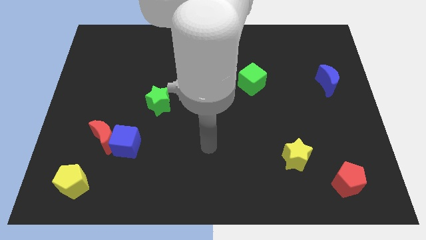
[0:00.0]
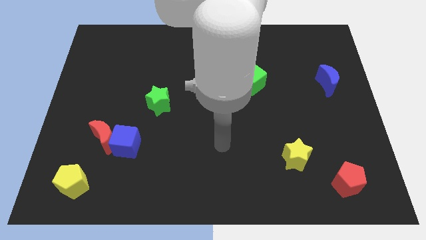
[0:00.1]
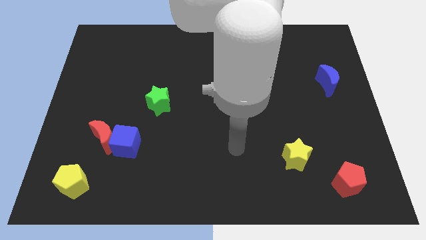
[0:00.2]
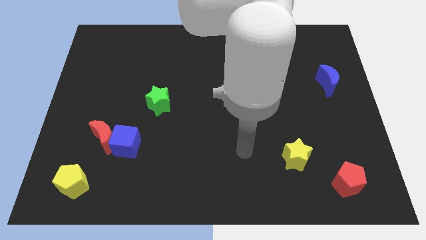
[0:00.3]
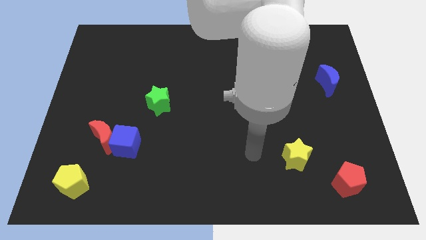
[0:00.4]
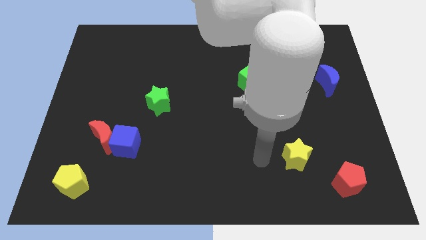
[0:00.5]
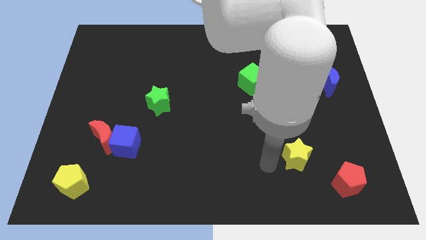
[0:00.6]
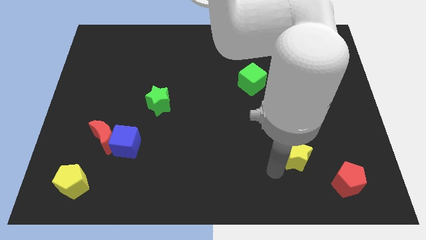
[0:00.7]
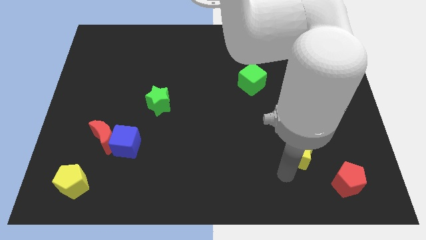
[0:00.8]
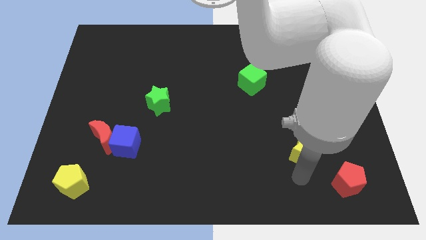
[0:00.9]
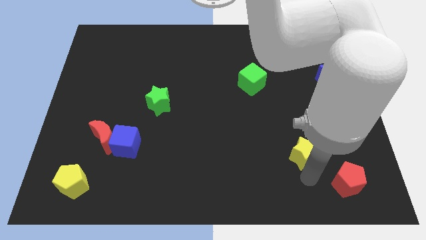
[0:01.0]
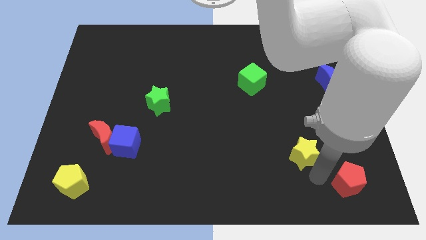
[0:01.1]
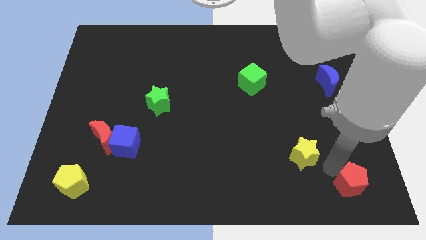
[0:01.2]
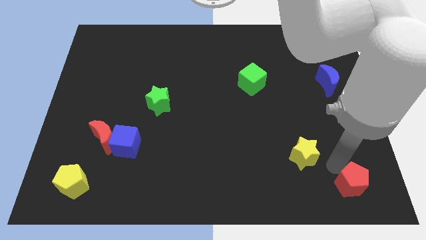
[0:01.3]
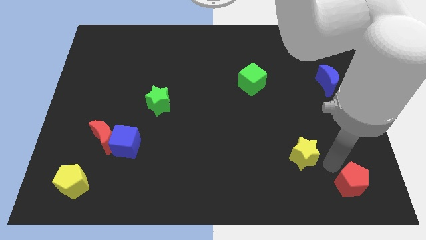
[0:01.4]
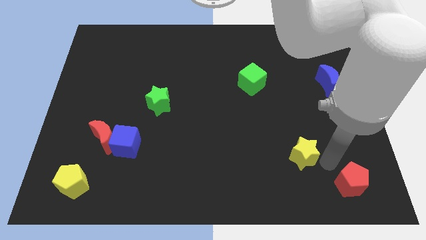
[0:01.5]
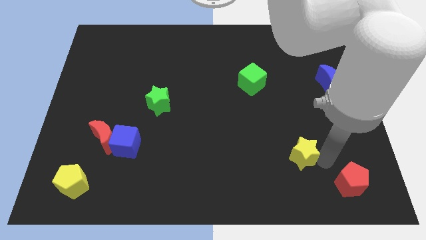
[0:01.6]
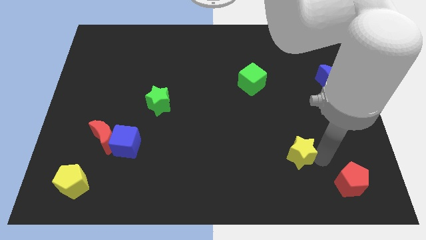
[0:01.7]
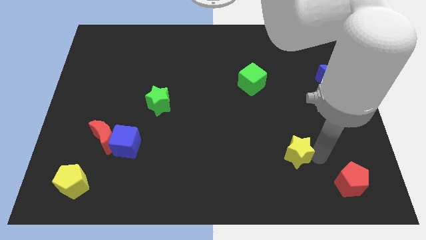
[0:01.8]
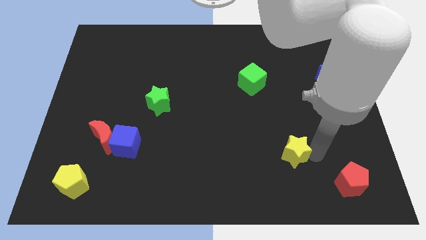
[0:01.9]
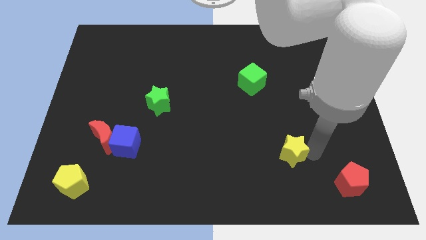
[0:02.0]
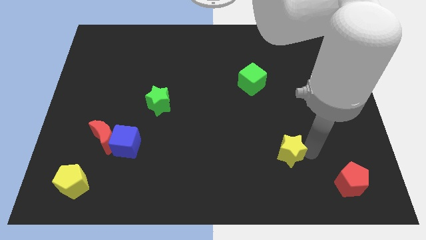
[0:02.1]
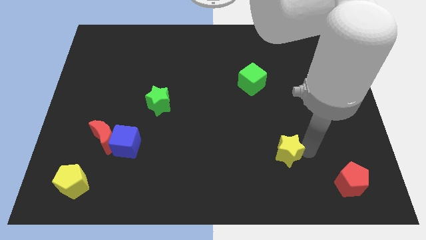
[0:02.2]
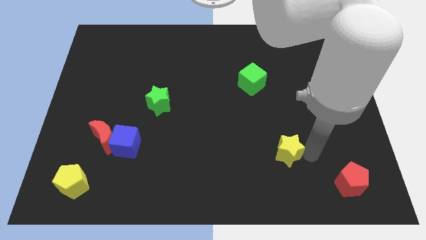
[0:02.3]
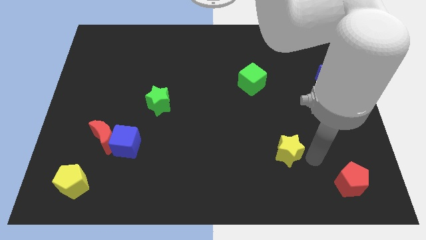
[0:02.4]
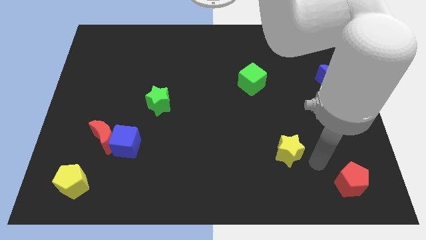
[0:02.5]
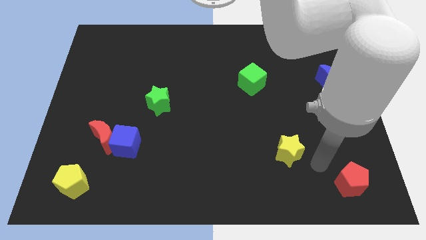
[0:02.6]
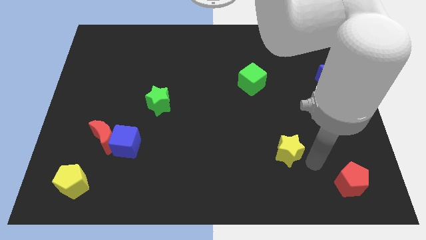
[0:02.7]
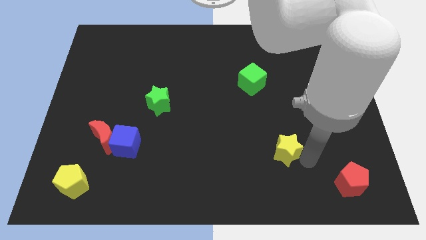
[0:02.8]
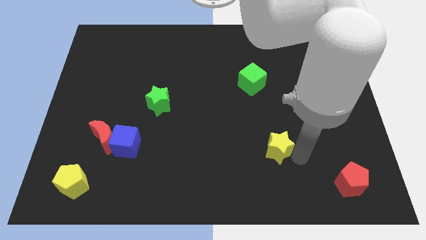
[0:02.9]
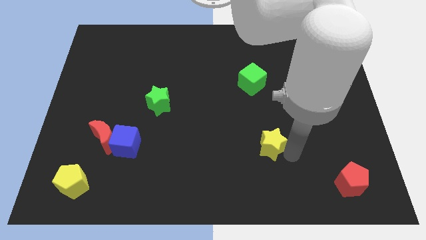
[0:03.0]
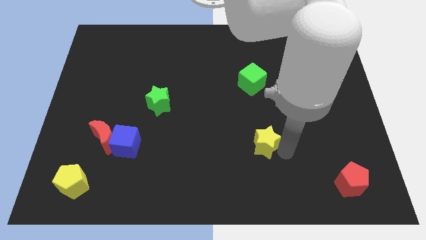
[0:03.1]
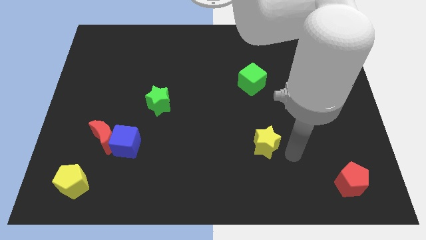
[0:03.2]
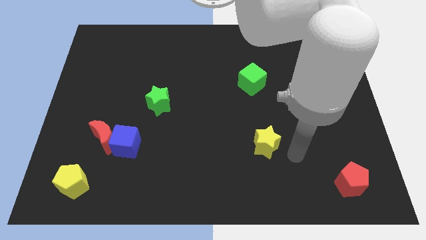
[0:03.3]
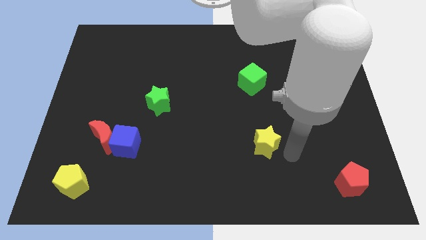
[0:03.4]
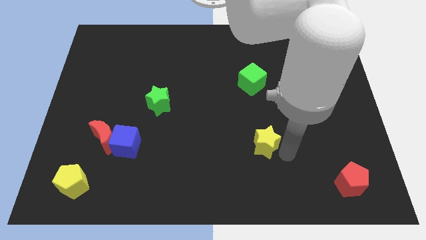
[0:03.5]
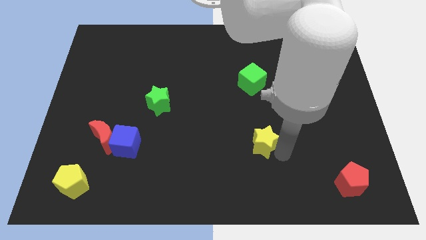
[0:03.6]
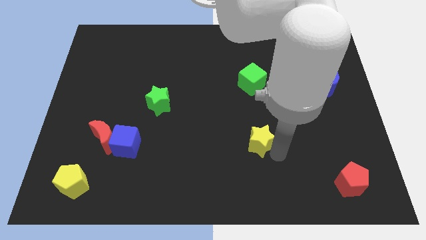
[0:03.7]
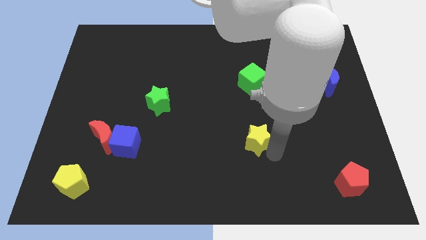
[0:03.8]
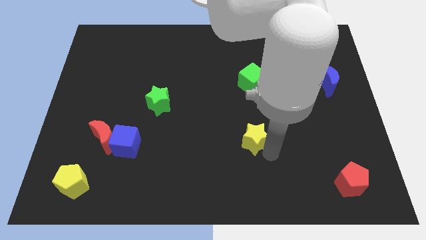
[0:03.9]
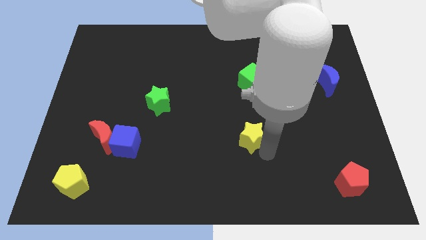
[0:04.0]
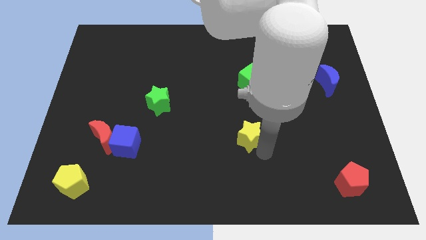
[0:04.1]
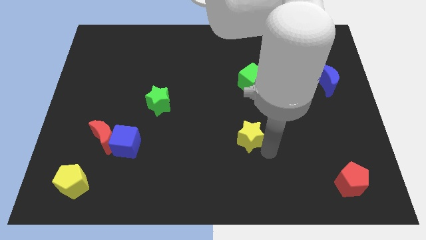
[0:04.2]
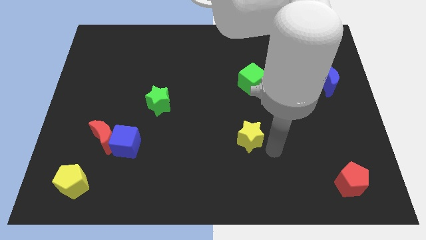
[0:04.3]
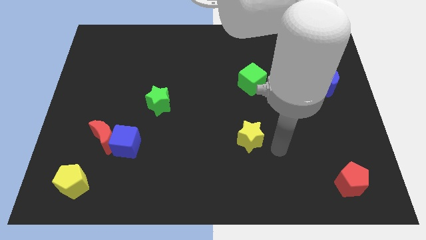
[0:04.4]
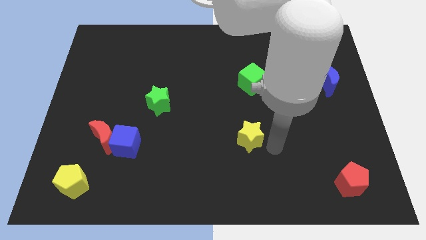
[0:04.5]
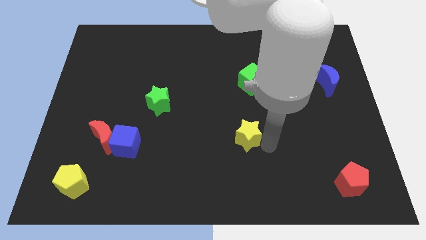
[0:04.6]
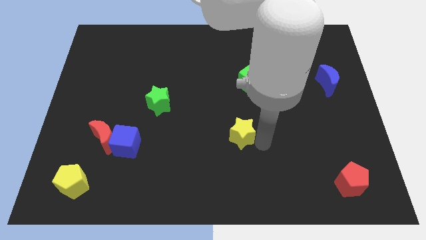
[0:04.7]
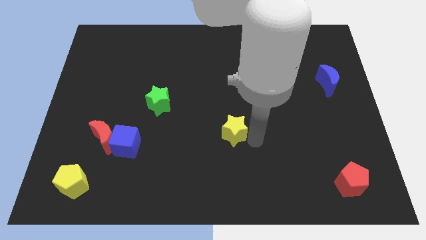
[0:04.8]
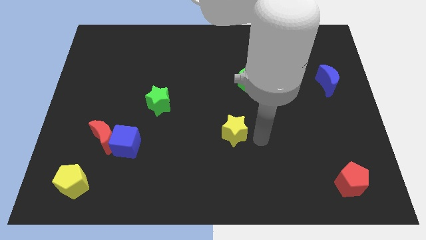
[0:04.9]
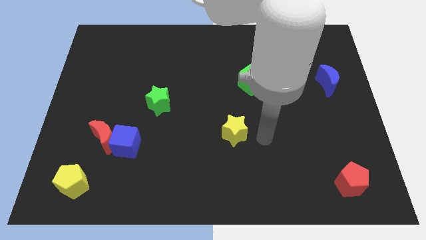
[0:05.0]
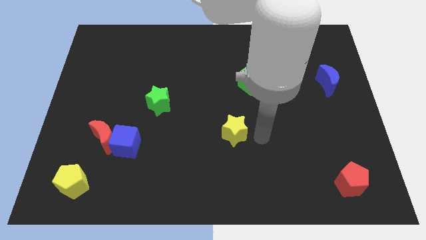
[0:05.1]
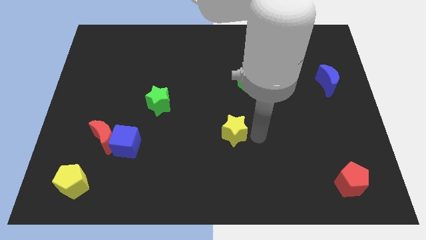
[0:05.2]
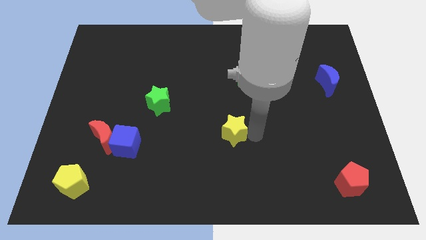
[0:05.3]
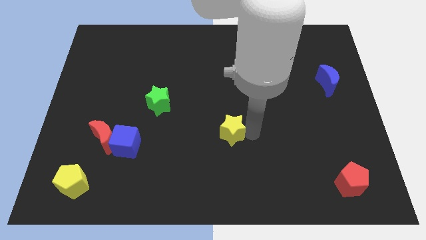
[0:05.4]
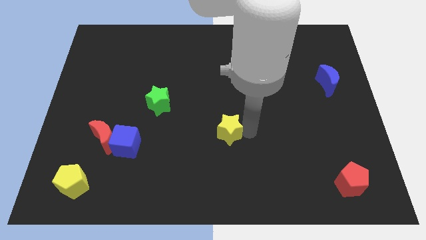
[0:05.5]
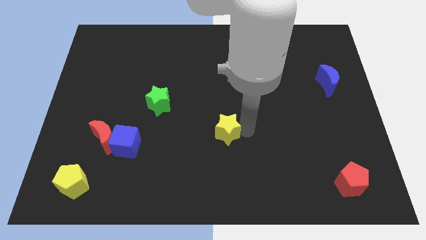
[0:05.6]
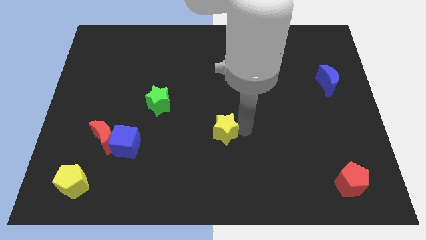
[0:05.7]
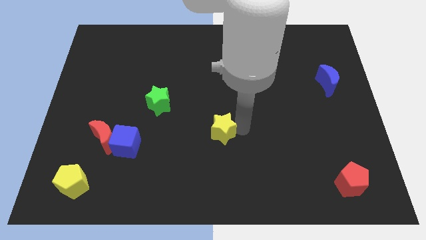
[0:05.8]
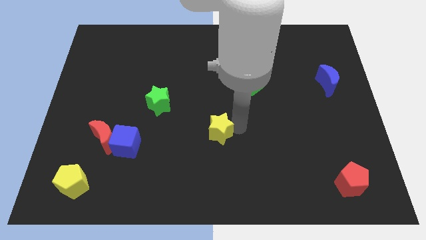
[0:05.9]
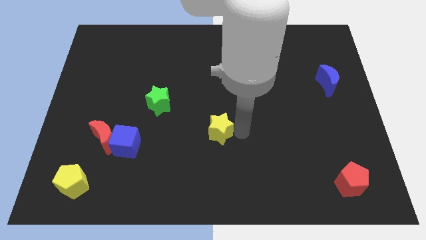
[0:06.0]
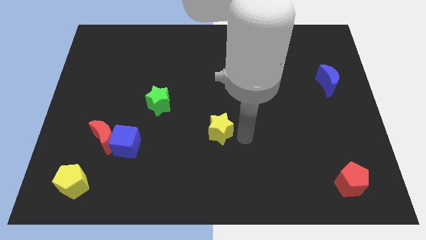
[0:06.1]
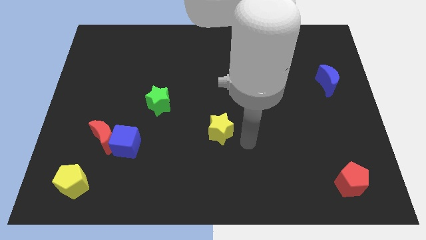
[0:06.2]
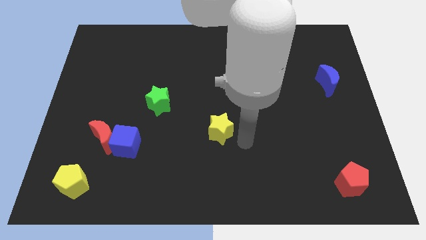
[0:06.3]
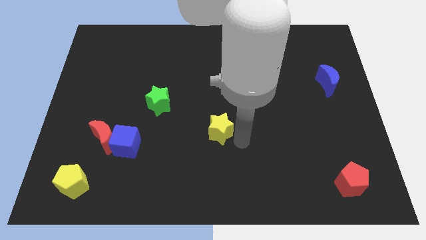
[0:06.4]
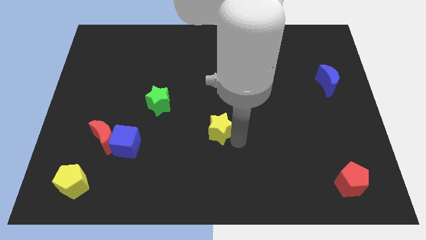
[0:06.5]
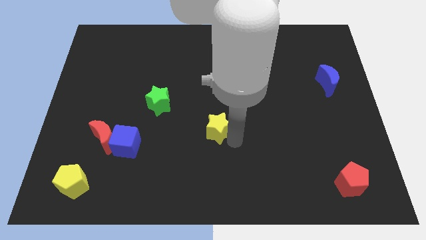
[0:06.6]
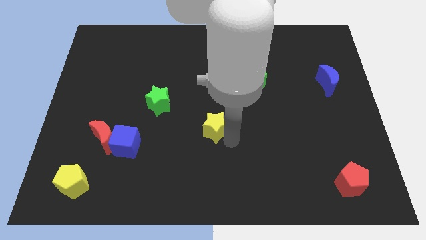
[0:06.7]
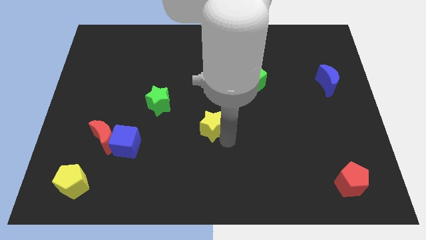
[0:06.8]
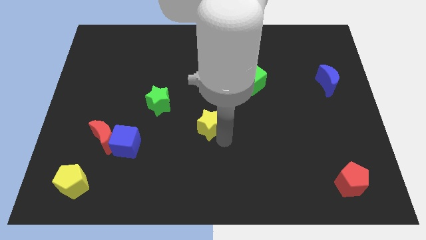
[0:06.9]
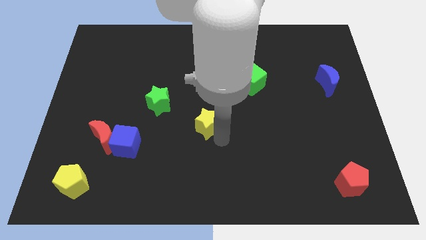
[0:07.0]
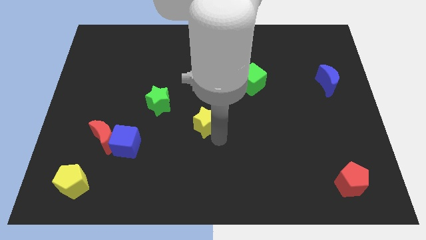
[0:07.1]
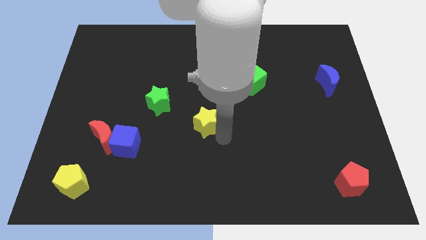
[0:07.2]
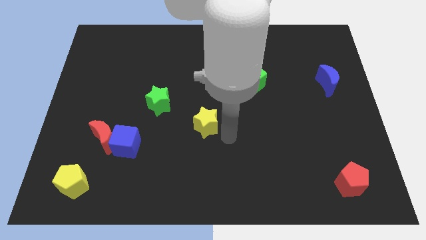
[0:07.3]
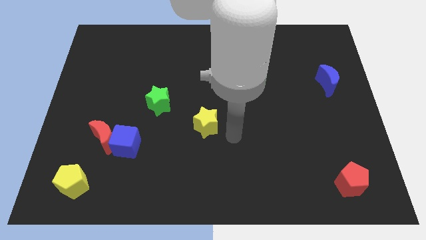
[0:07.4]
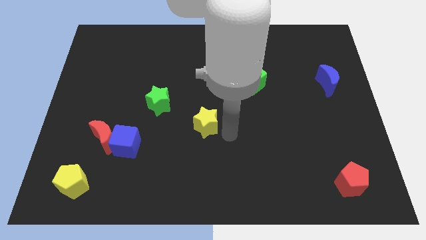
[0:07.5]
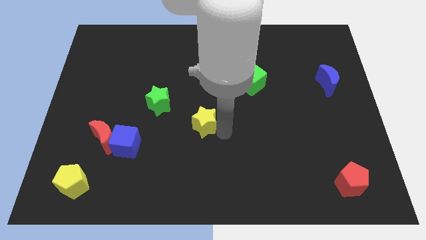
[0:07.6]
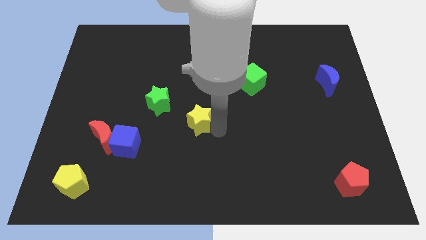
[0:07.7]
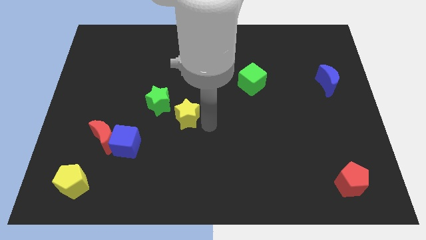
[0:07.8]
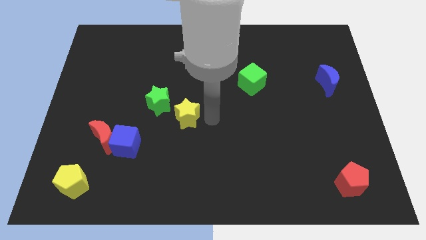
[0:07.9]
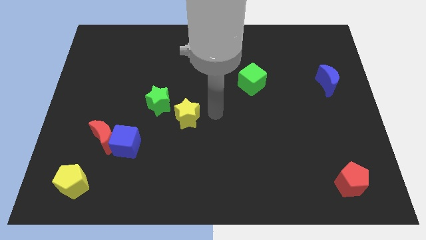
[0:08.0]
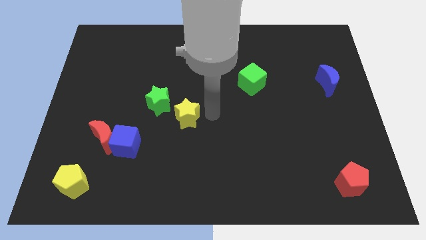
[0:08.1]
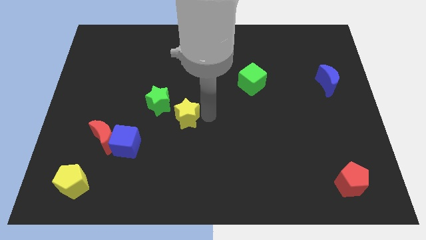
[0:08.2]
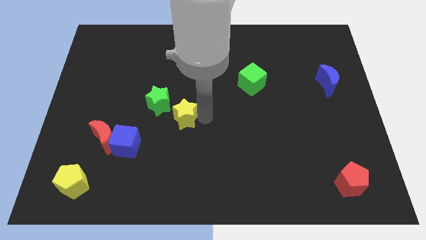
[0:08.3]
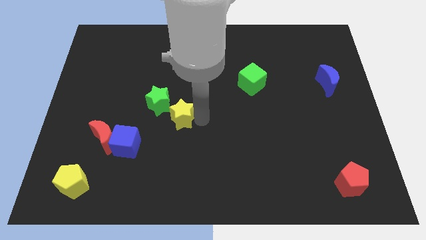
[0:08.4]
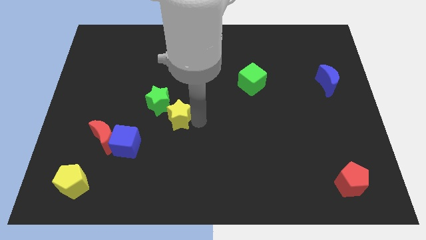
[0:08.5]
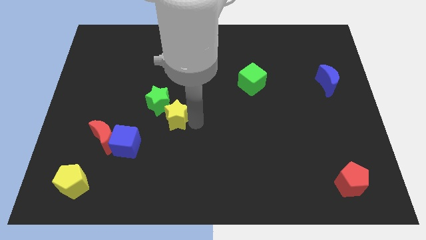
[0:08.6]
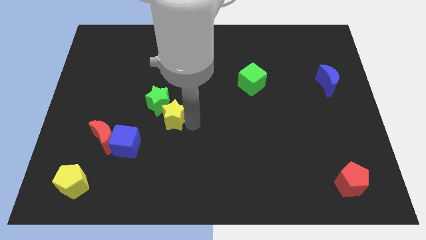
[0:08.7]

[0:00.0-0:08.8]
put the yellow star to the top right side of the blue cube
